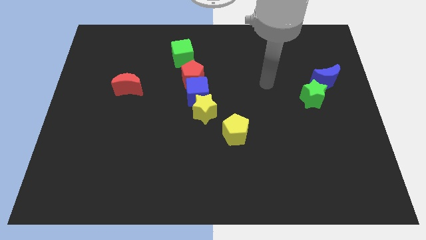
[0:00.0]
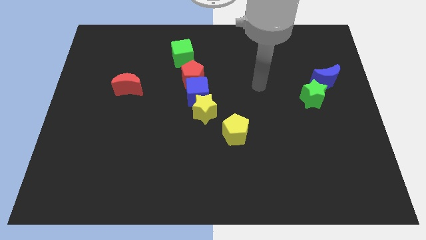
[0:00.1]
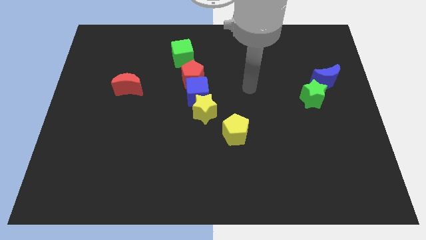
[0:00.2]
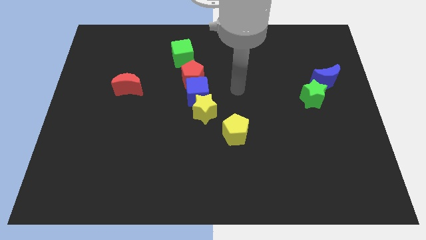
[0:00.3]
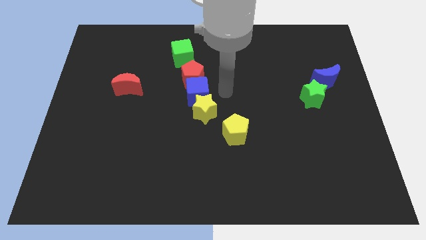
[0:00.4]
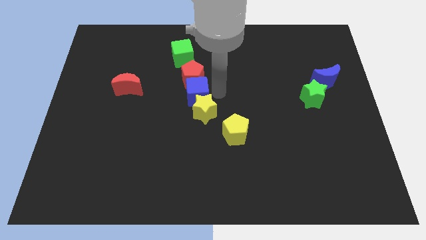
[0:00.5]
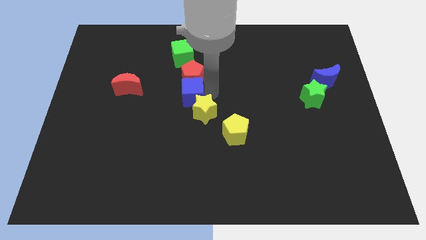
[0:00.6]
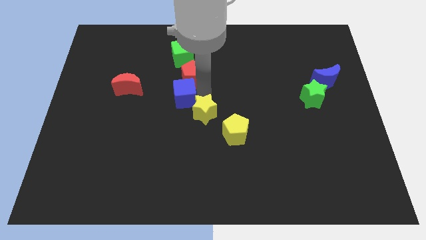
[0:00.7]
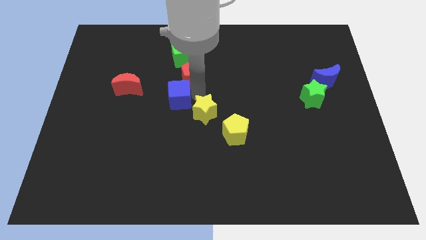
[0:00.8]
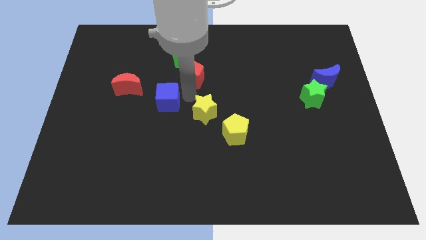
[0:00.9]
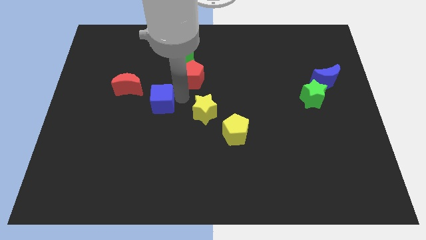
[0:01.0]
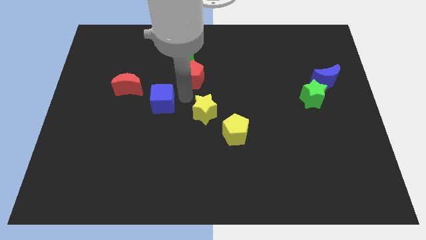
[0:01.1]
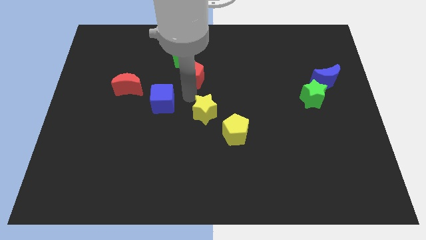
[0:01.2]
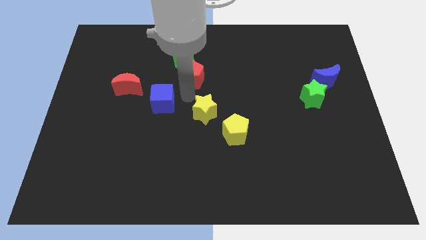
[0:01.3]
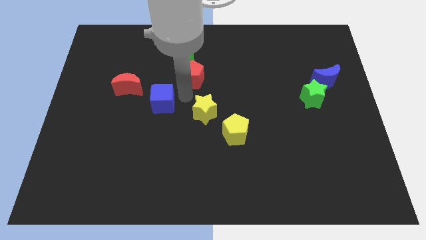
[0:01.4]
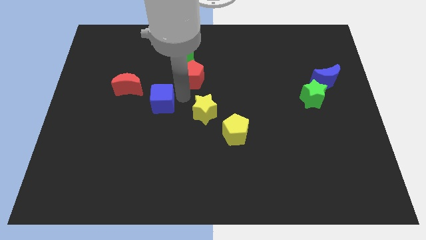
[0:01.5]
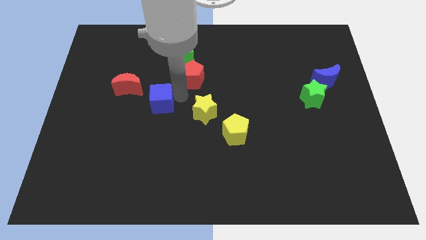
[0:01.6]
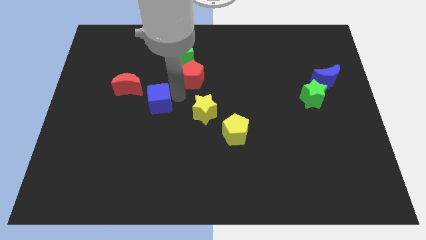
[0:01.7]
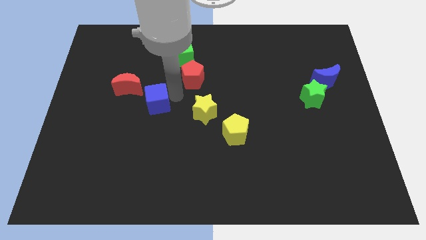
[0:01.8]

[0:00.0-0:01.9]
pull the blue cube apart from the red pentagon and yellow star

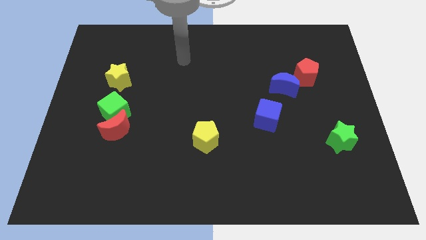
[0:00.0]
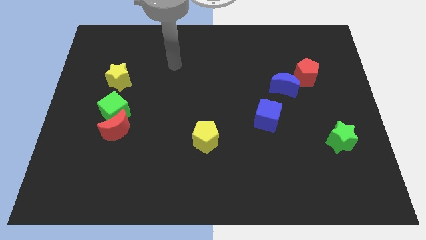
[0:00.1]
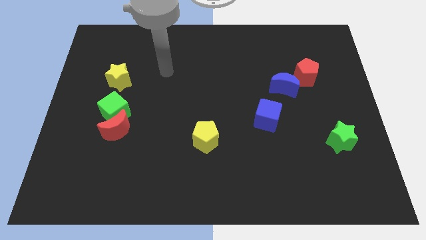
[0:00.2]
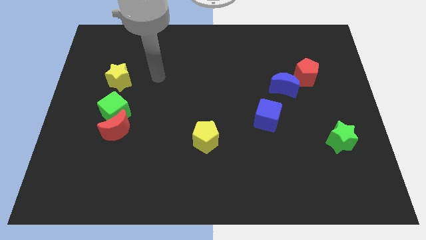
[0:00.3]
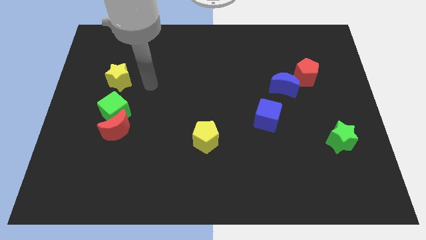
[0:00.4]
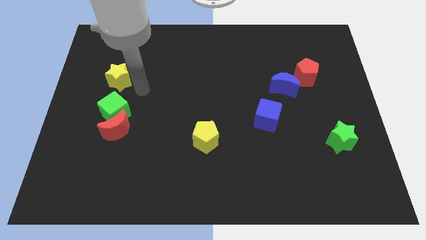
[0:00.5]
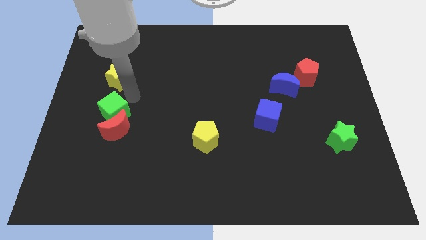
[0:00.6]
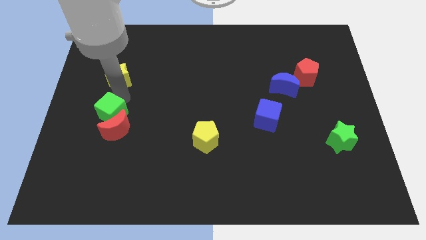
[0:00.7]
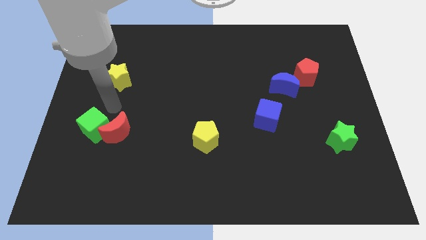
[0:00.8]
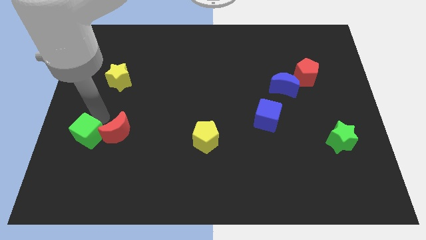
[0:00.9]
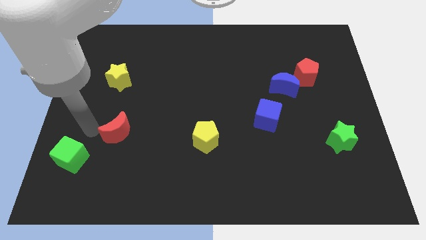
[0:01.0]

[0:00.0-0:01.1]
separate the red moon from the green cube

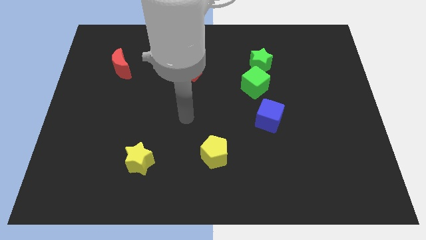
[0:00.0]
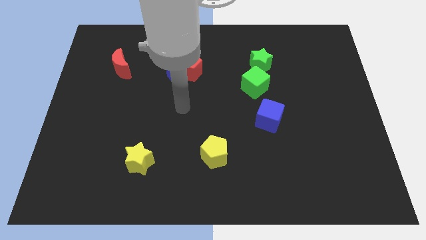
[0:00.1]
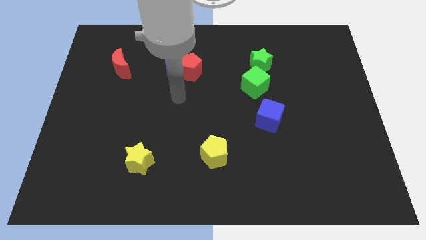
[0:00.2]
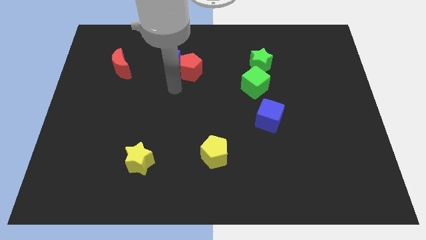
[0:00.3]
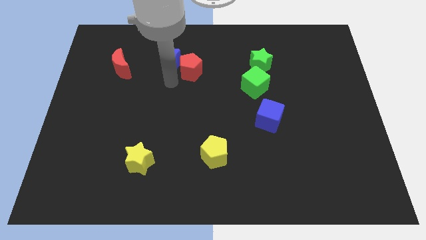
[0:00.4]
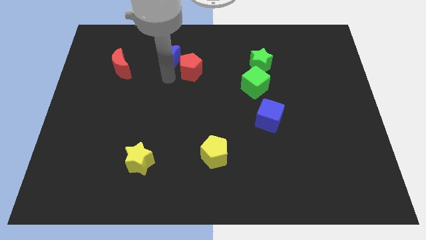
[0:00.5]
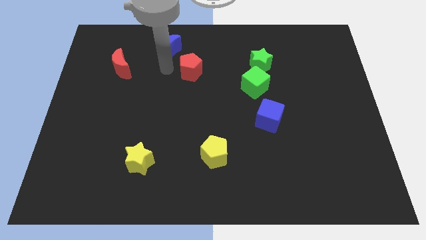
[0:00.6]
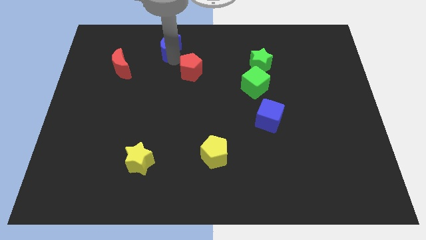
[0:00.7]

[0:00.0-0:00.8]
separate the red pentagon from the blue moon

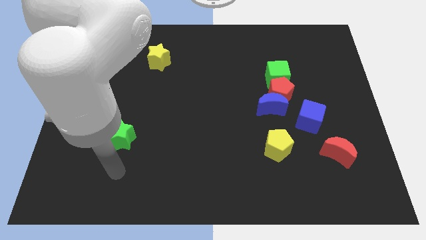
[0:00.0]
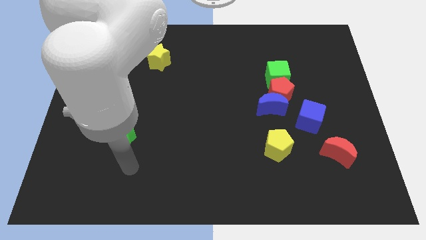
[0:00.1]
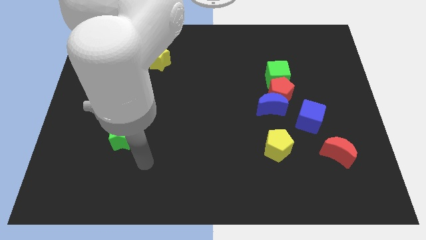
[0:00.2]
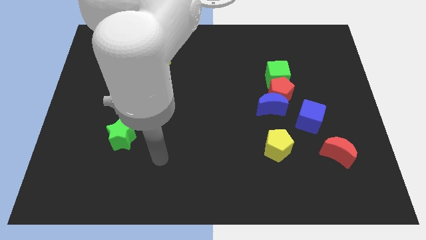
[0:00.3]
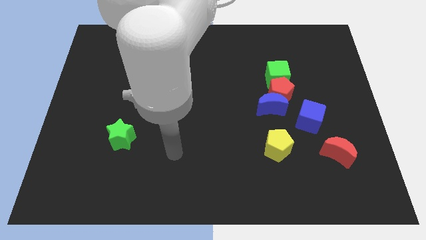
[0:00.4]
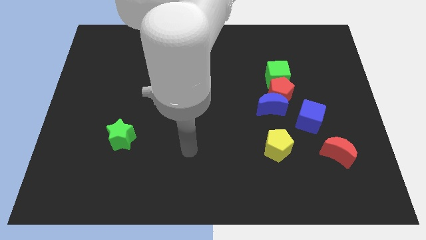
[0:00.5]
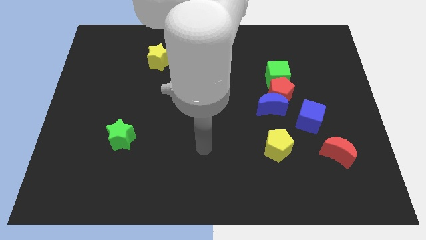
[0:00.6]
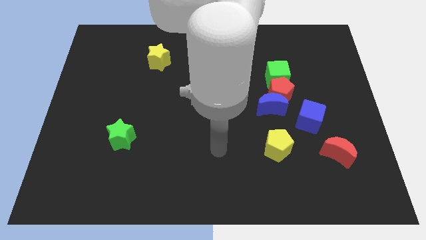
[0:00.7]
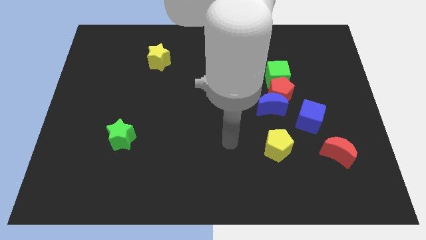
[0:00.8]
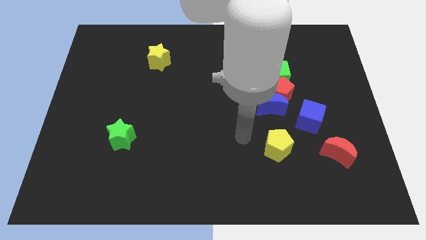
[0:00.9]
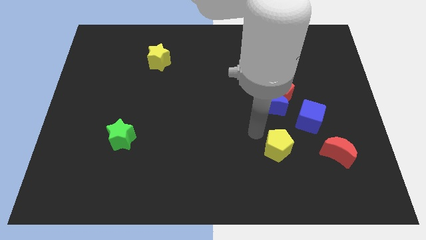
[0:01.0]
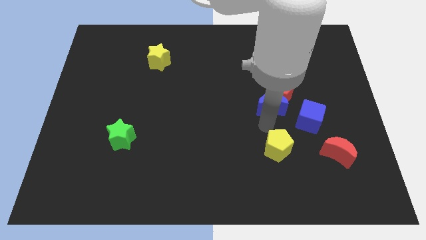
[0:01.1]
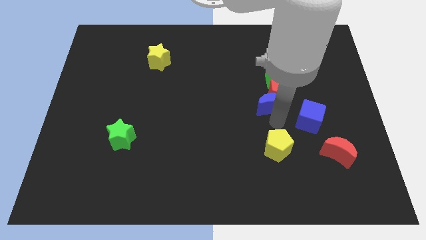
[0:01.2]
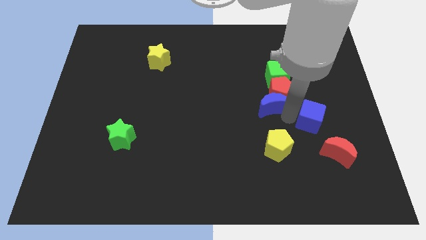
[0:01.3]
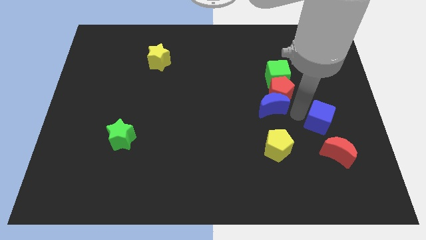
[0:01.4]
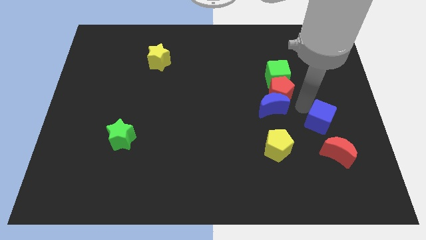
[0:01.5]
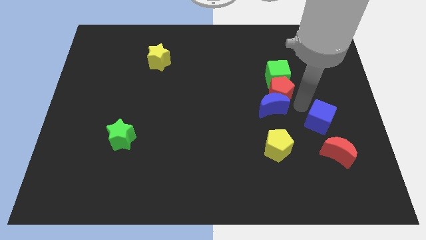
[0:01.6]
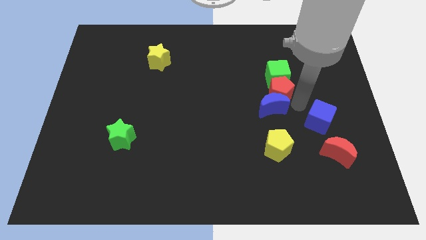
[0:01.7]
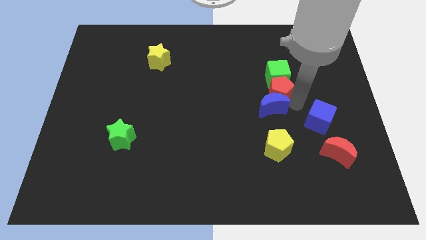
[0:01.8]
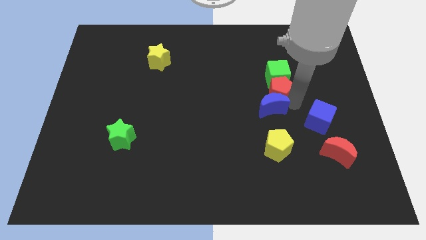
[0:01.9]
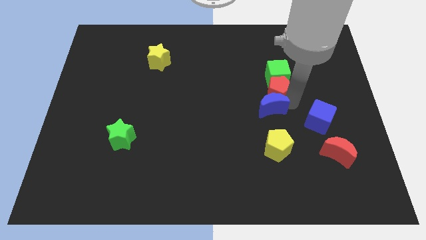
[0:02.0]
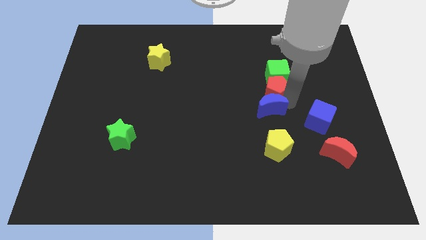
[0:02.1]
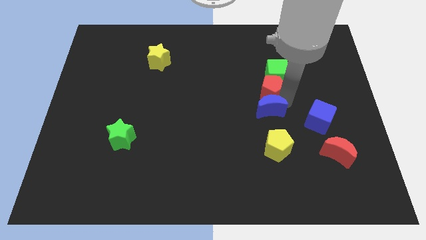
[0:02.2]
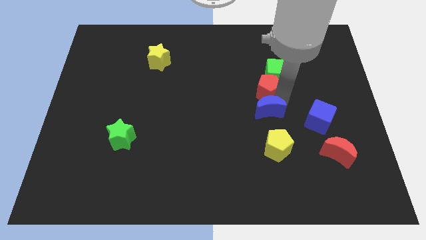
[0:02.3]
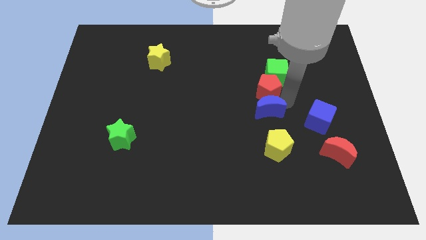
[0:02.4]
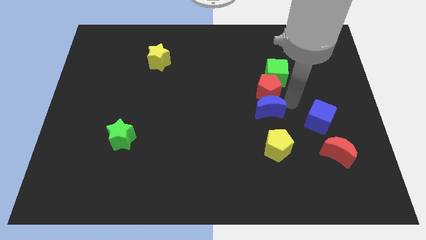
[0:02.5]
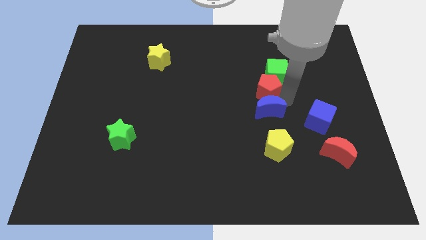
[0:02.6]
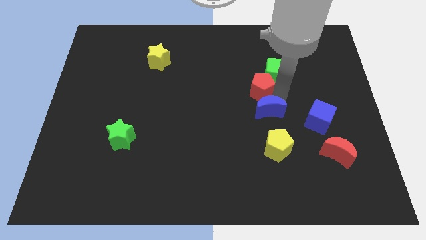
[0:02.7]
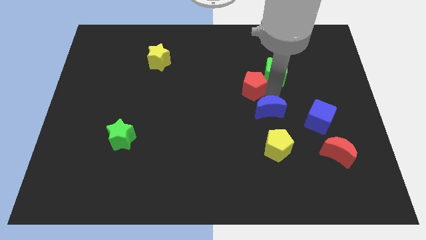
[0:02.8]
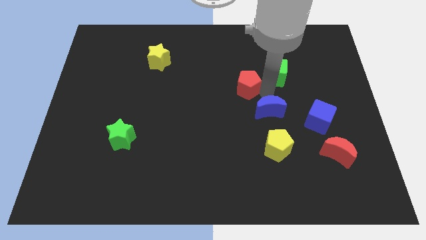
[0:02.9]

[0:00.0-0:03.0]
move the red pentagon away from the blue moon, green cube, and blue cube

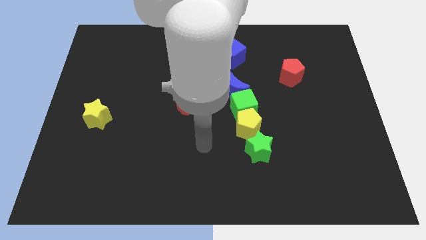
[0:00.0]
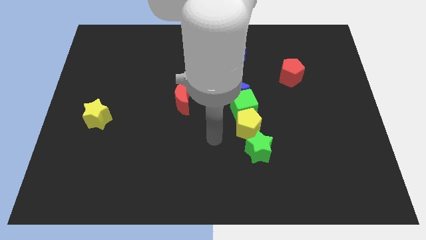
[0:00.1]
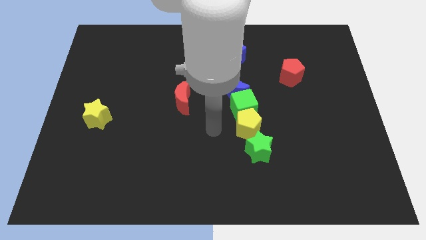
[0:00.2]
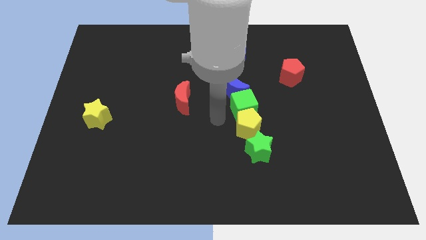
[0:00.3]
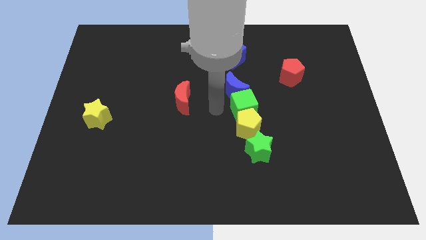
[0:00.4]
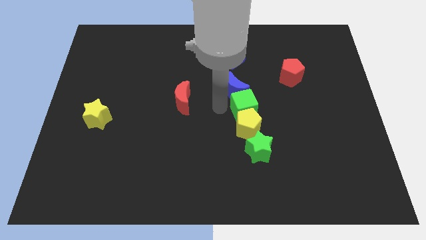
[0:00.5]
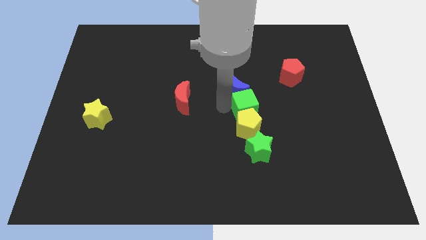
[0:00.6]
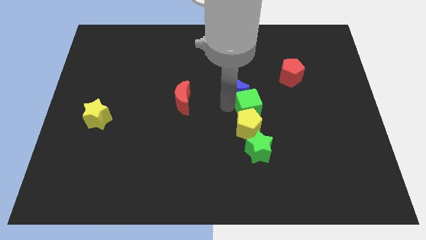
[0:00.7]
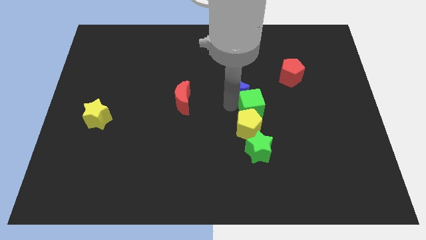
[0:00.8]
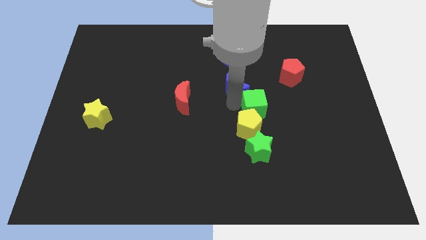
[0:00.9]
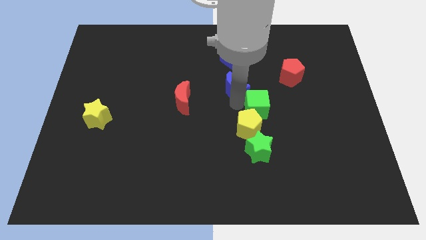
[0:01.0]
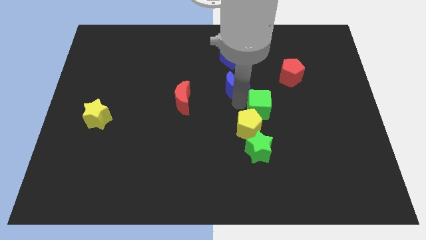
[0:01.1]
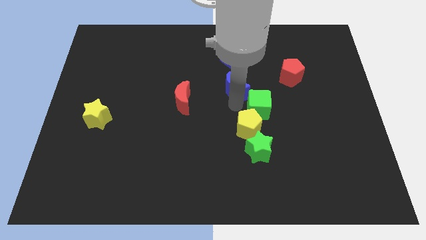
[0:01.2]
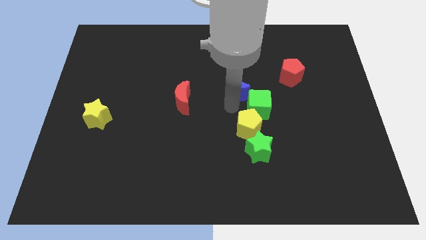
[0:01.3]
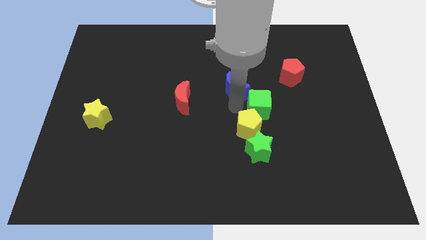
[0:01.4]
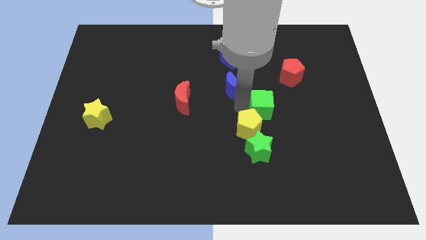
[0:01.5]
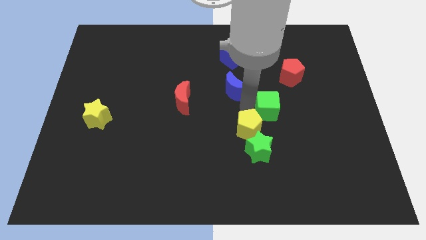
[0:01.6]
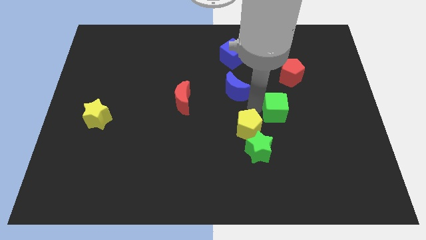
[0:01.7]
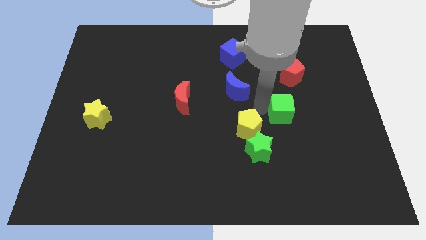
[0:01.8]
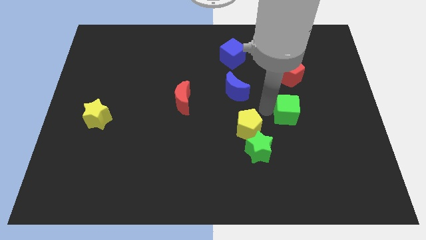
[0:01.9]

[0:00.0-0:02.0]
move the green cube away from the yellow pentagon and blue moon

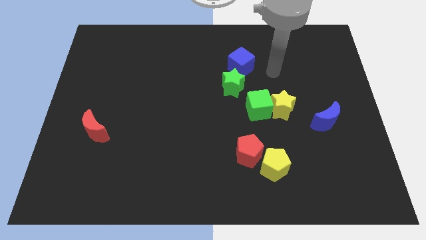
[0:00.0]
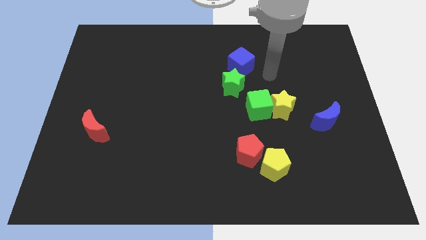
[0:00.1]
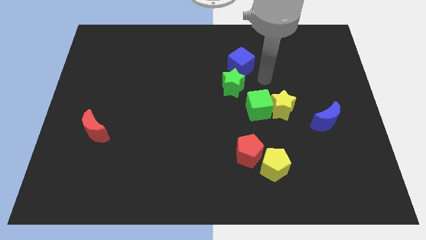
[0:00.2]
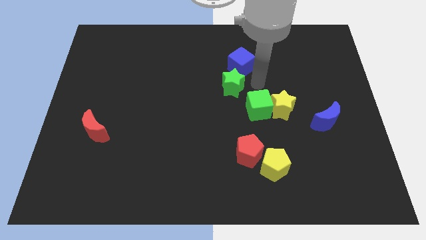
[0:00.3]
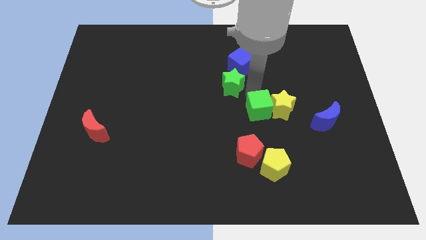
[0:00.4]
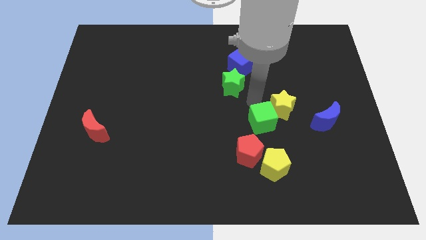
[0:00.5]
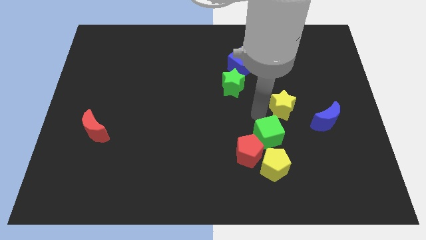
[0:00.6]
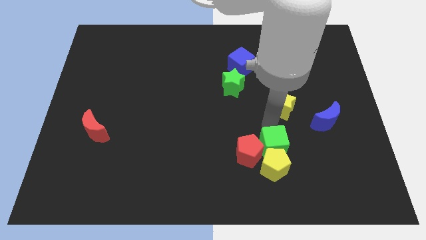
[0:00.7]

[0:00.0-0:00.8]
separate the yellow star from the green cube
